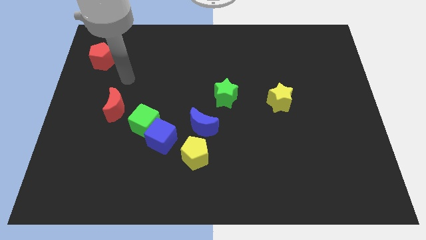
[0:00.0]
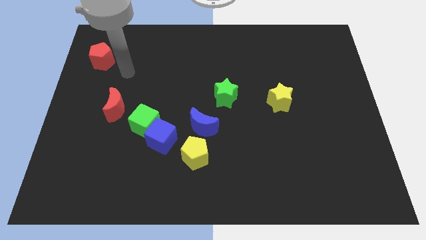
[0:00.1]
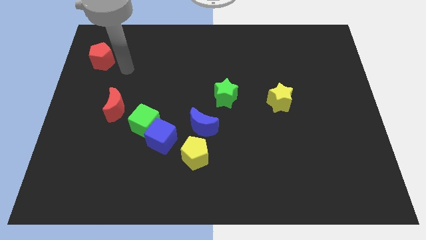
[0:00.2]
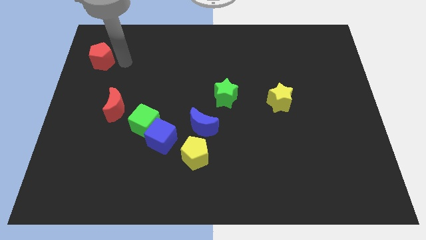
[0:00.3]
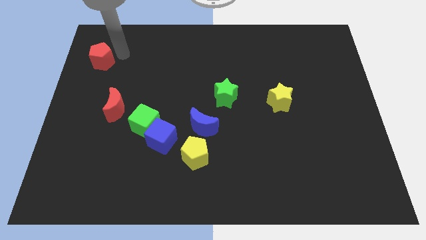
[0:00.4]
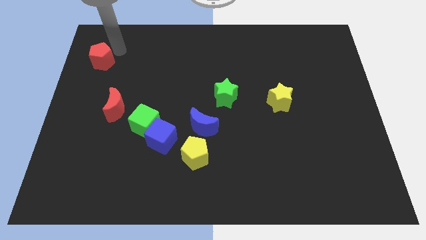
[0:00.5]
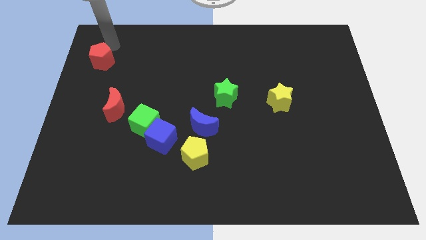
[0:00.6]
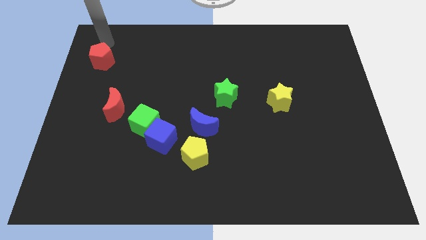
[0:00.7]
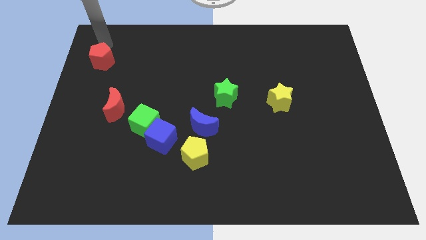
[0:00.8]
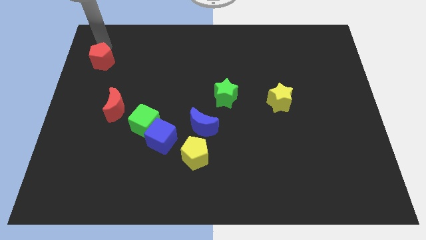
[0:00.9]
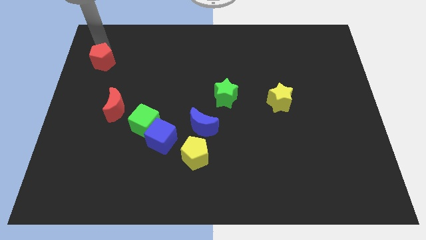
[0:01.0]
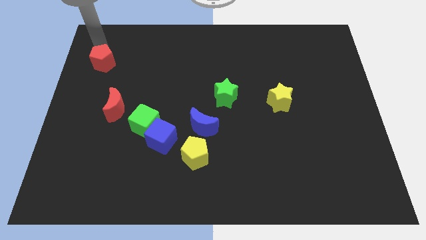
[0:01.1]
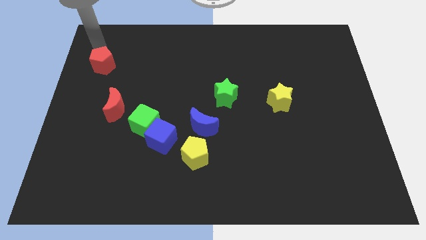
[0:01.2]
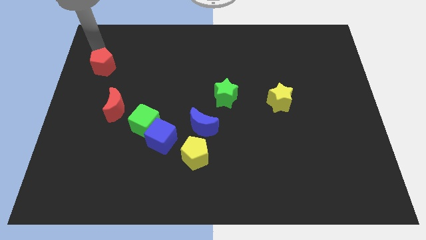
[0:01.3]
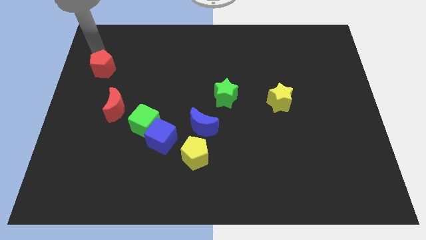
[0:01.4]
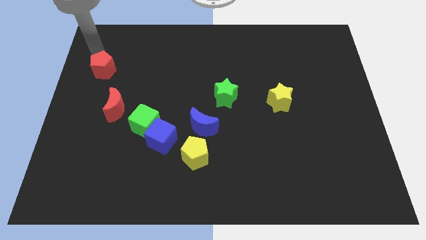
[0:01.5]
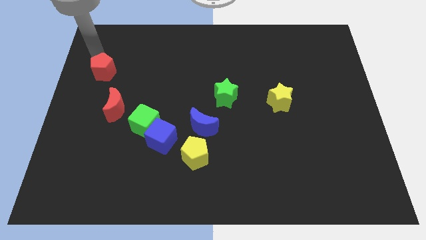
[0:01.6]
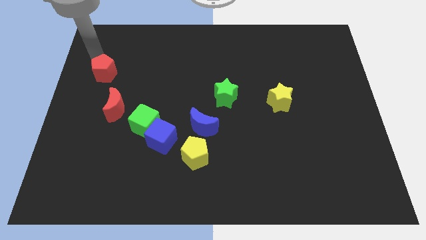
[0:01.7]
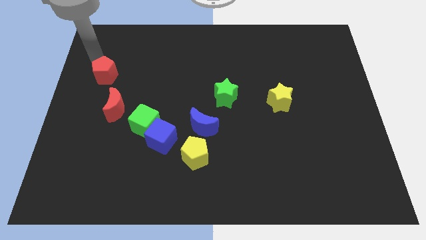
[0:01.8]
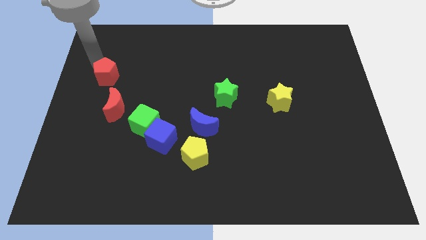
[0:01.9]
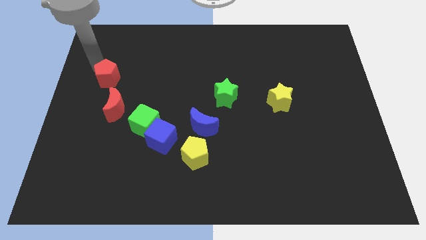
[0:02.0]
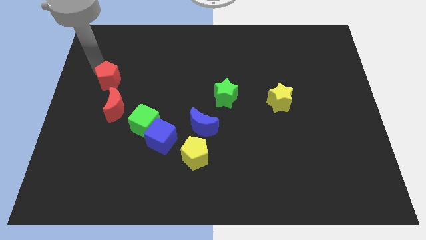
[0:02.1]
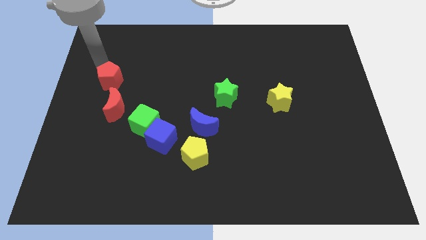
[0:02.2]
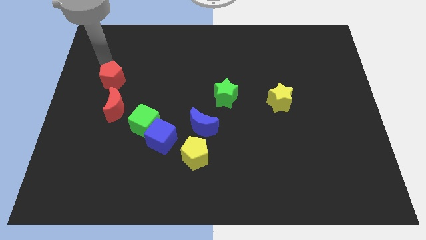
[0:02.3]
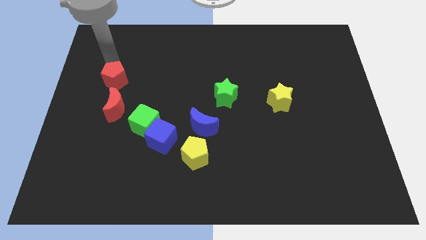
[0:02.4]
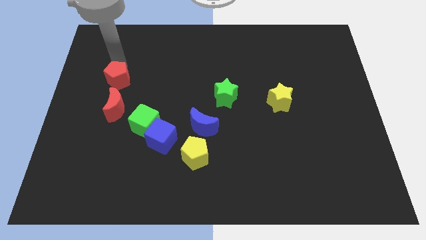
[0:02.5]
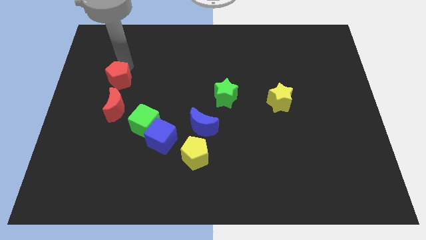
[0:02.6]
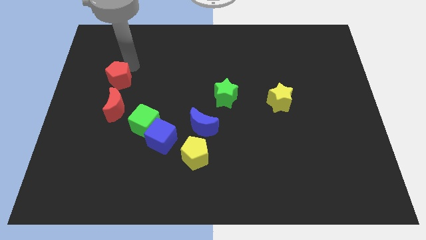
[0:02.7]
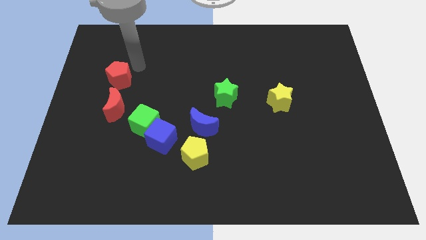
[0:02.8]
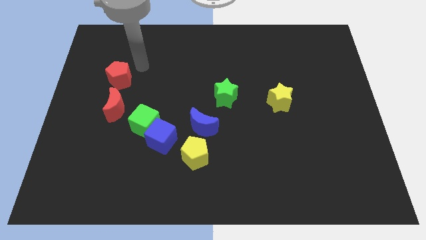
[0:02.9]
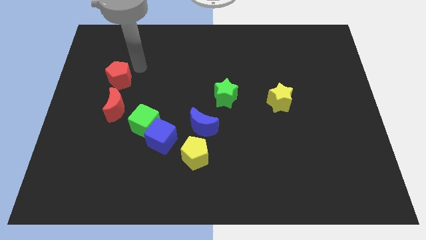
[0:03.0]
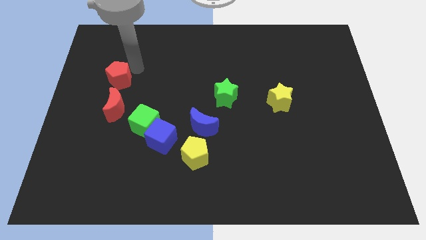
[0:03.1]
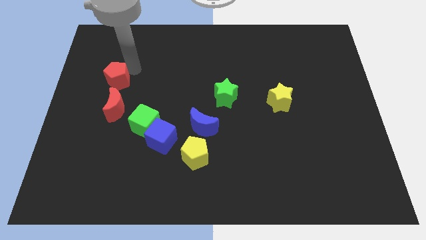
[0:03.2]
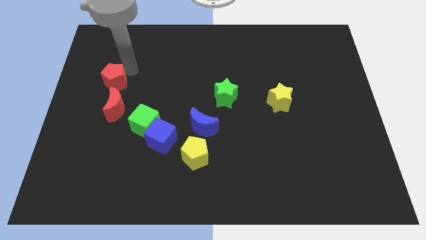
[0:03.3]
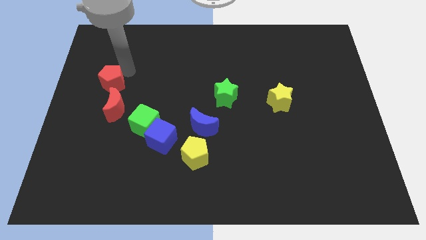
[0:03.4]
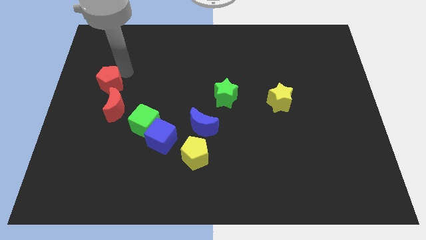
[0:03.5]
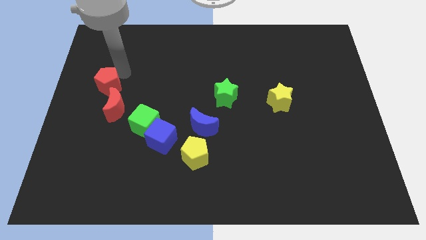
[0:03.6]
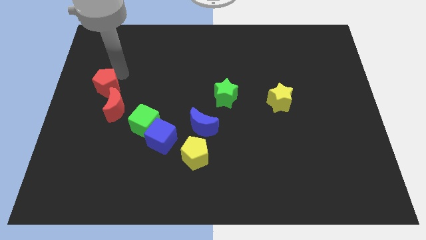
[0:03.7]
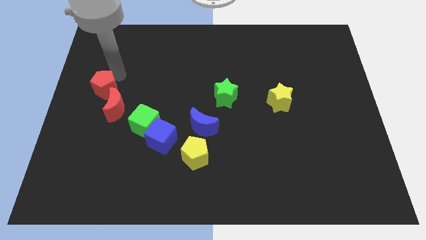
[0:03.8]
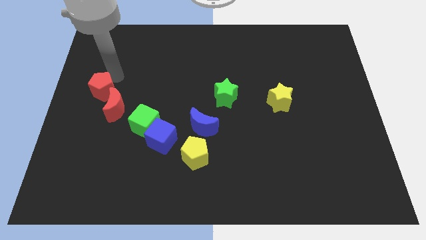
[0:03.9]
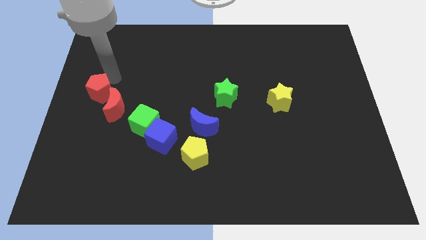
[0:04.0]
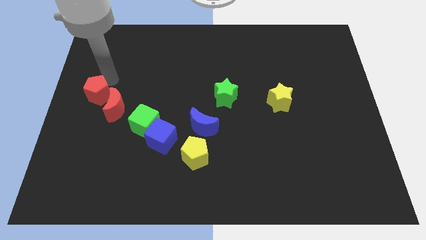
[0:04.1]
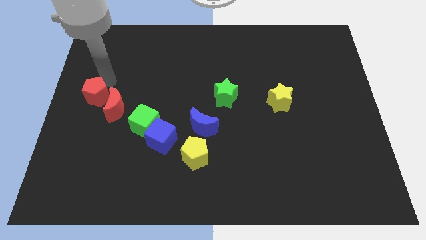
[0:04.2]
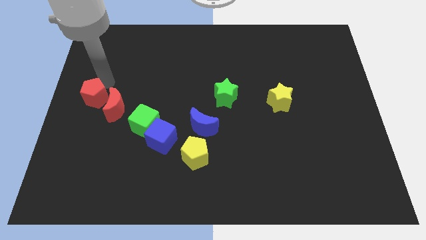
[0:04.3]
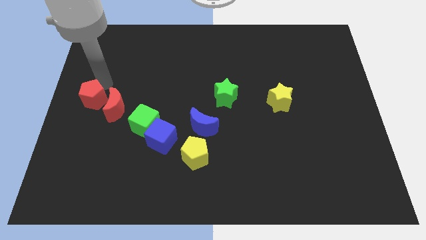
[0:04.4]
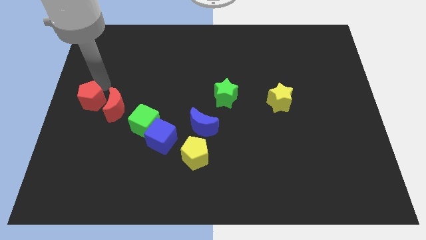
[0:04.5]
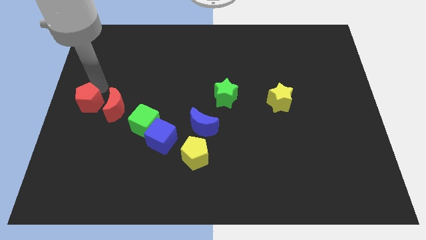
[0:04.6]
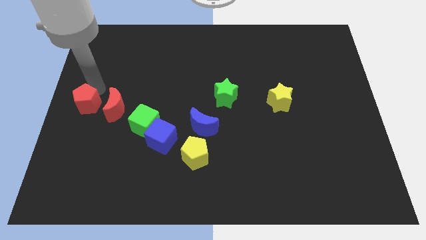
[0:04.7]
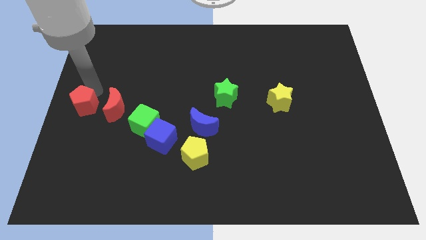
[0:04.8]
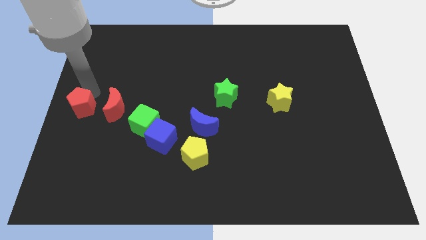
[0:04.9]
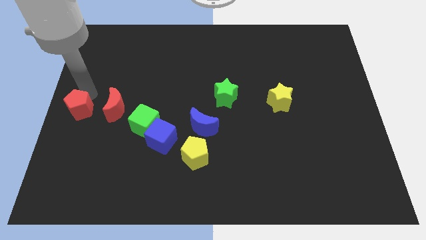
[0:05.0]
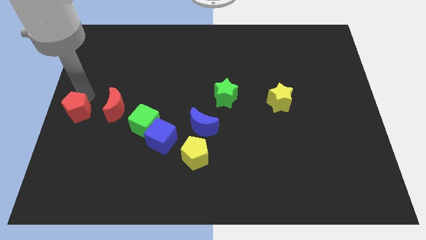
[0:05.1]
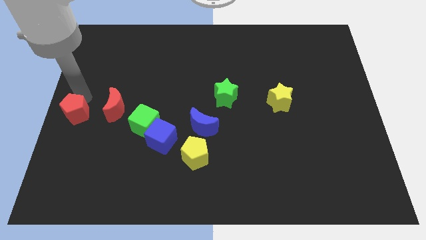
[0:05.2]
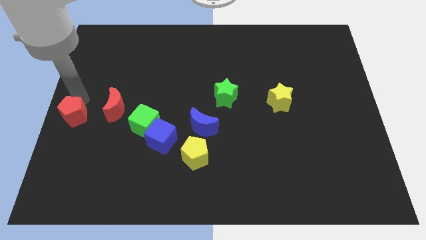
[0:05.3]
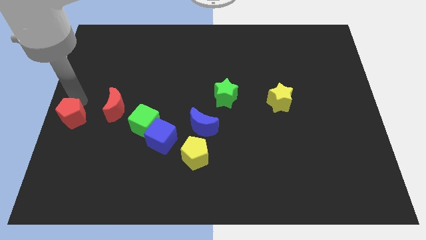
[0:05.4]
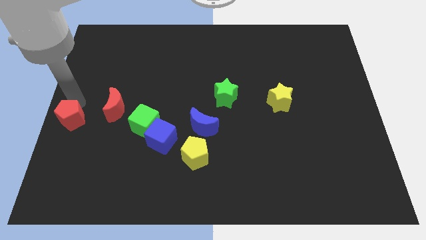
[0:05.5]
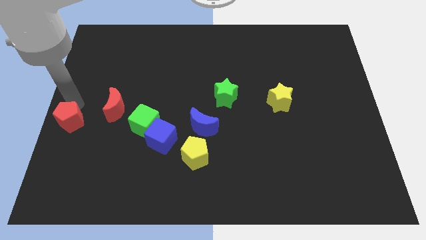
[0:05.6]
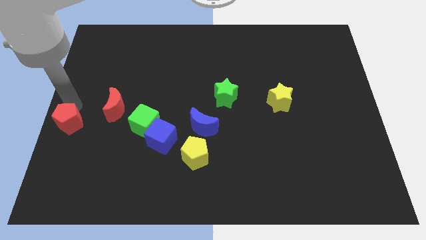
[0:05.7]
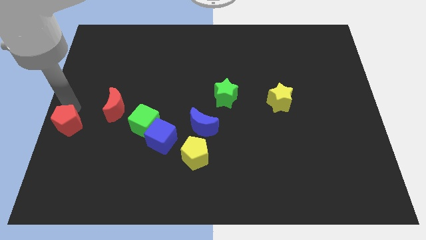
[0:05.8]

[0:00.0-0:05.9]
push the red pentagon down

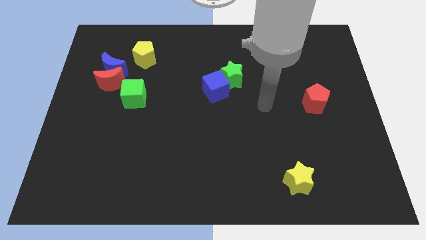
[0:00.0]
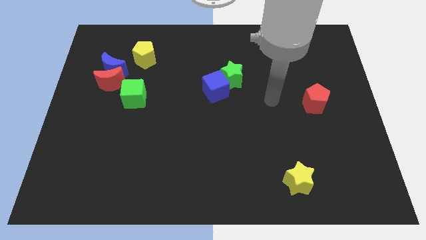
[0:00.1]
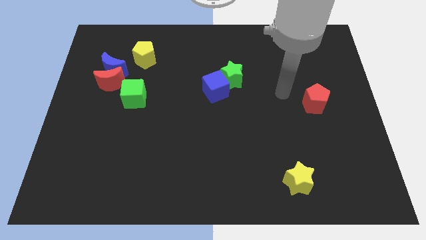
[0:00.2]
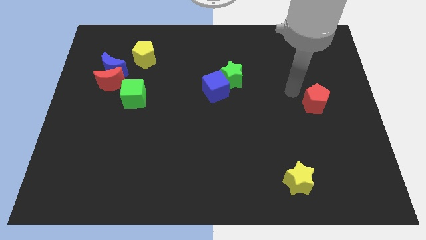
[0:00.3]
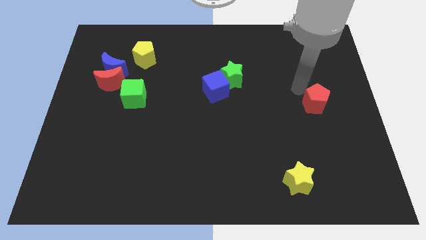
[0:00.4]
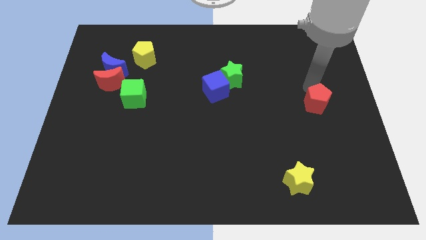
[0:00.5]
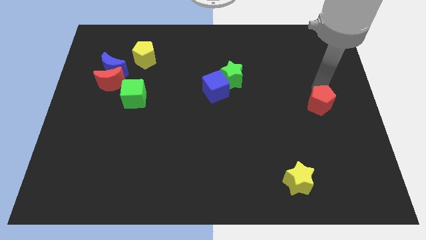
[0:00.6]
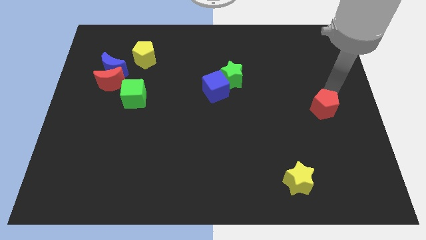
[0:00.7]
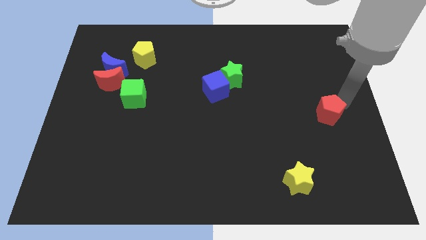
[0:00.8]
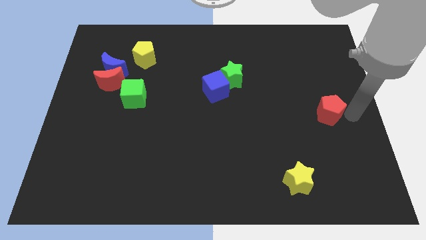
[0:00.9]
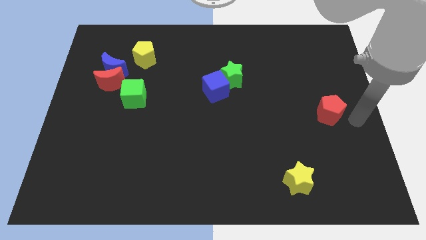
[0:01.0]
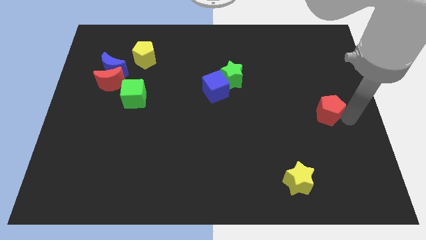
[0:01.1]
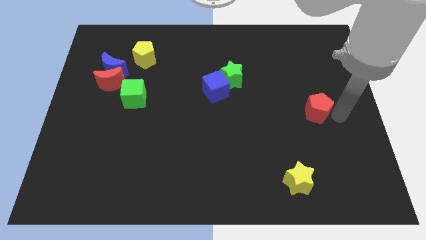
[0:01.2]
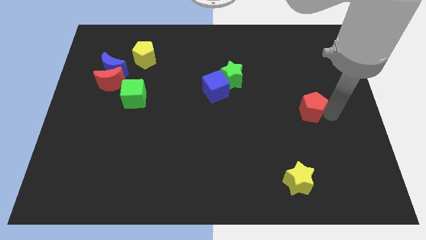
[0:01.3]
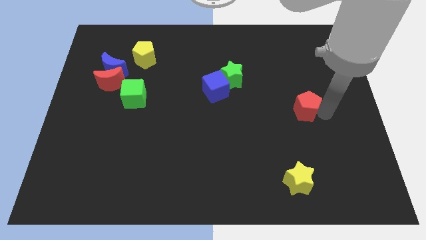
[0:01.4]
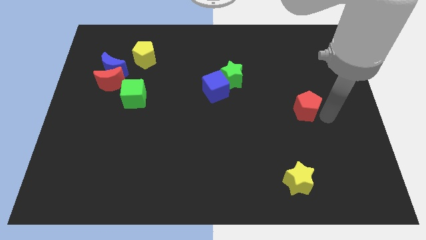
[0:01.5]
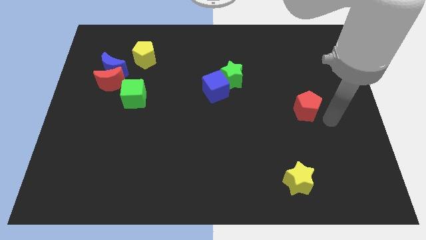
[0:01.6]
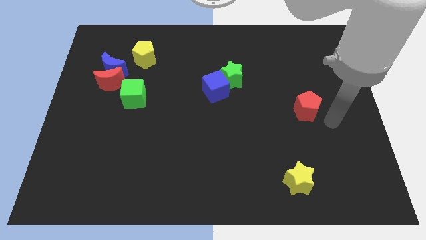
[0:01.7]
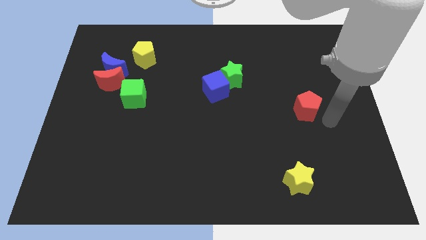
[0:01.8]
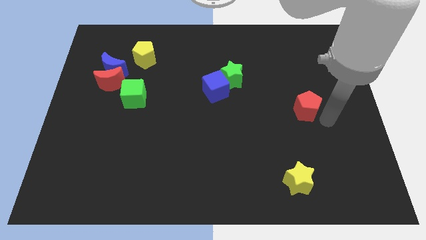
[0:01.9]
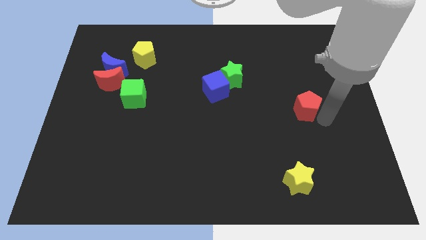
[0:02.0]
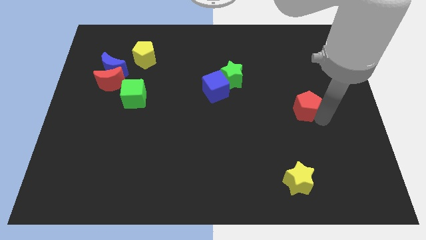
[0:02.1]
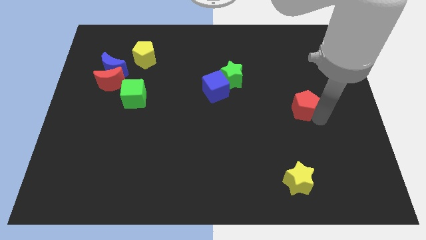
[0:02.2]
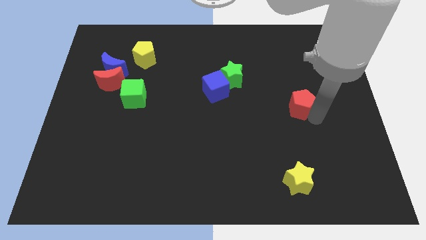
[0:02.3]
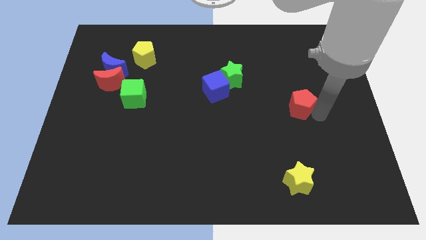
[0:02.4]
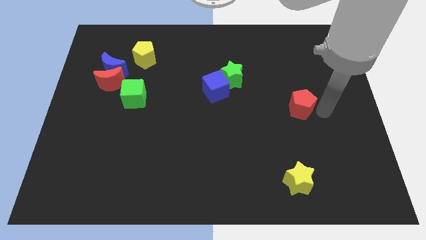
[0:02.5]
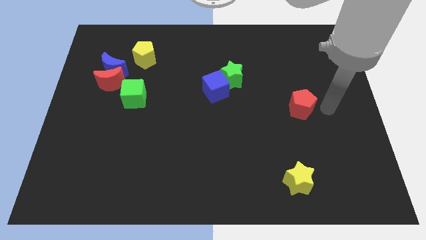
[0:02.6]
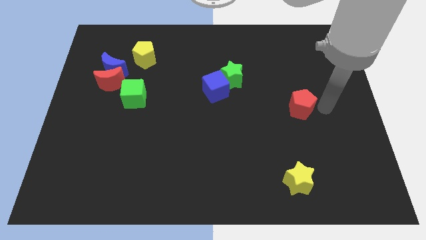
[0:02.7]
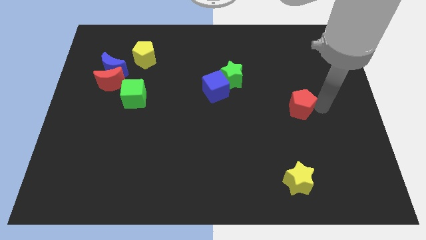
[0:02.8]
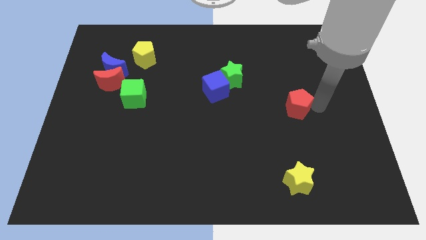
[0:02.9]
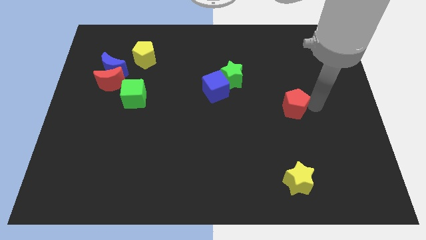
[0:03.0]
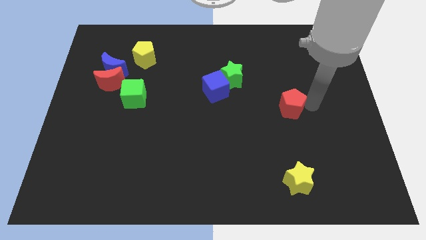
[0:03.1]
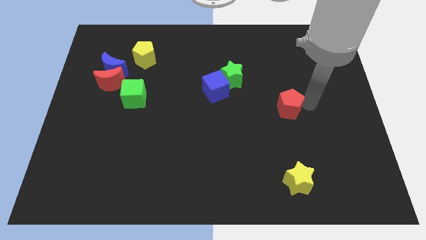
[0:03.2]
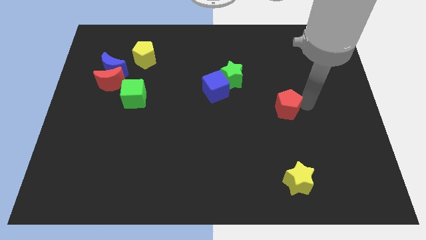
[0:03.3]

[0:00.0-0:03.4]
move the red pentagon to the left a little
